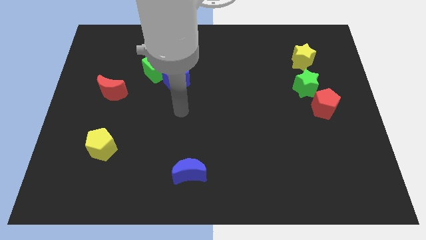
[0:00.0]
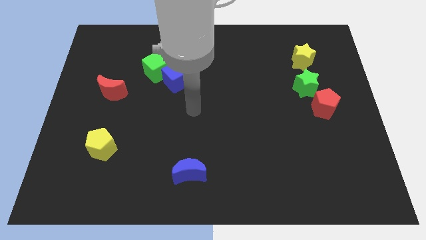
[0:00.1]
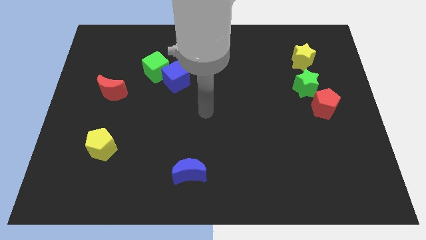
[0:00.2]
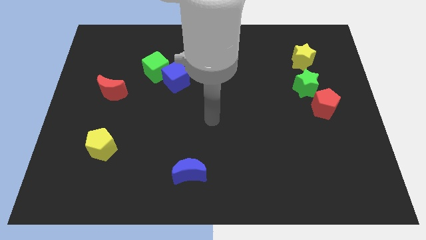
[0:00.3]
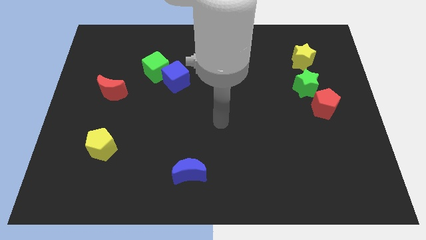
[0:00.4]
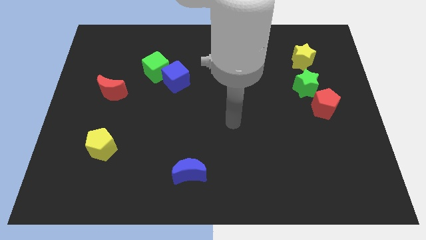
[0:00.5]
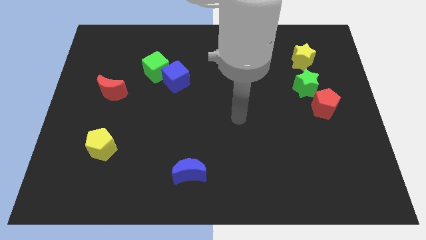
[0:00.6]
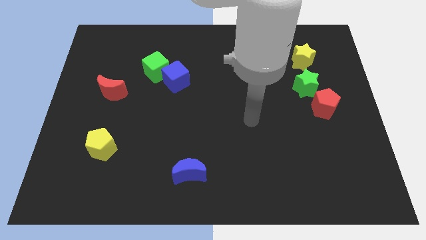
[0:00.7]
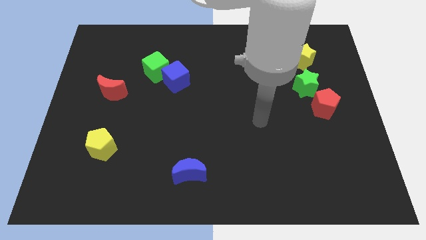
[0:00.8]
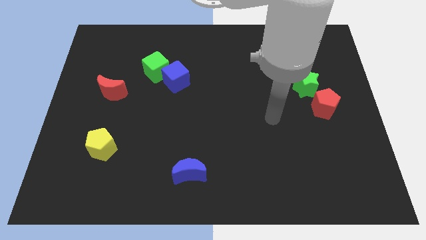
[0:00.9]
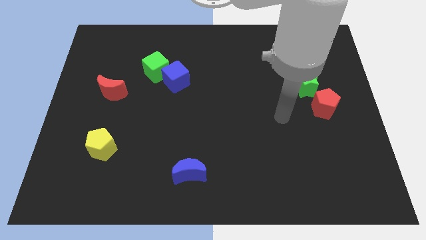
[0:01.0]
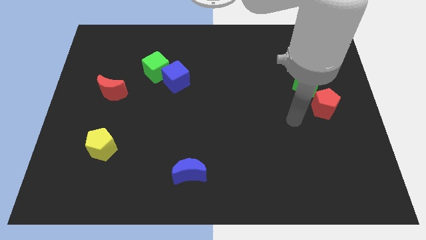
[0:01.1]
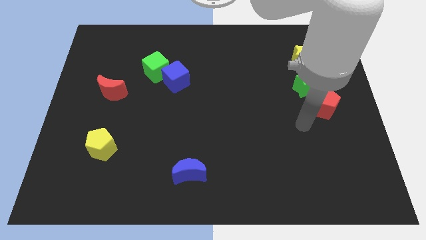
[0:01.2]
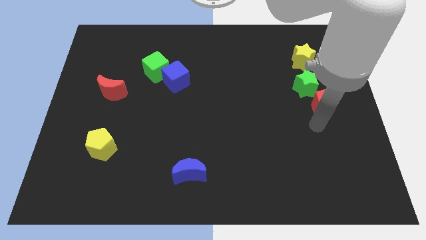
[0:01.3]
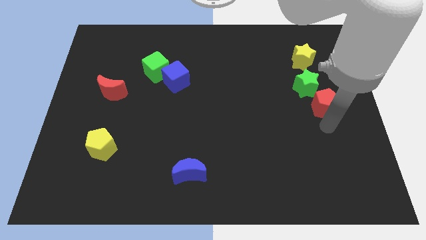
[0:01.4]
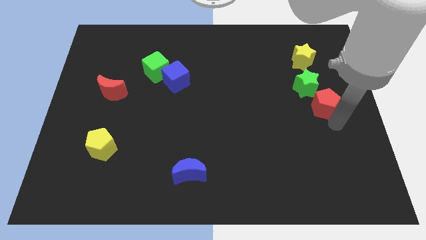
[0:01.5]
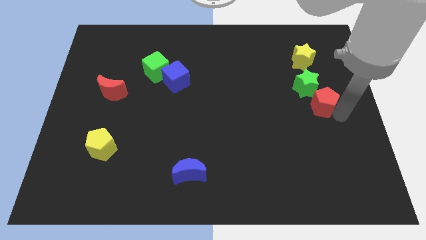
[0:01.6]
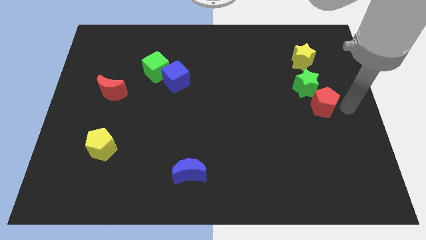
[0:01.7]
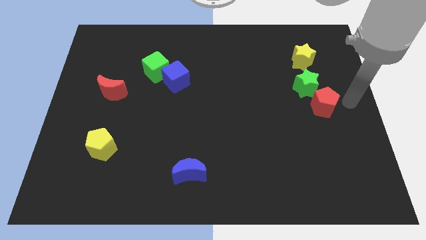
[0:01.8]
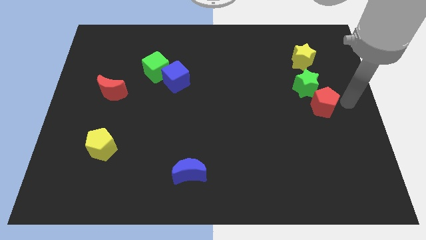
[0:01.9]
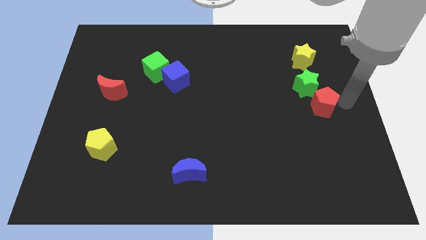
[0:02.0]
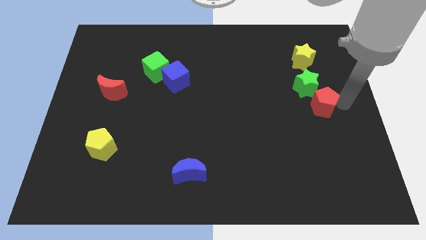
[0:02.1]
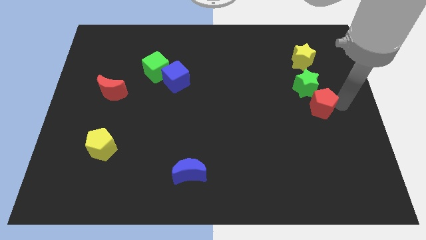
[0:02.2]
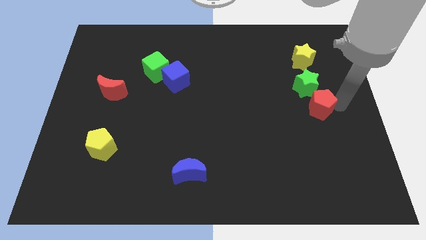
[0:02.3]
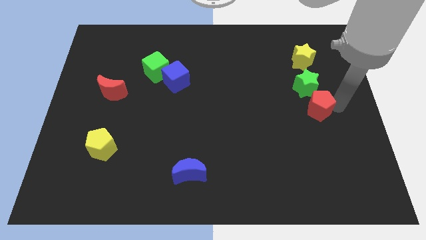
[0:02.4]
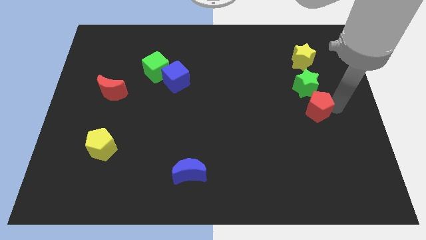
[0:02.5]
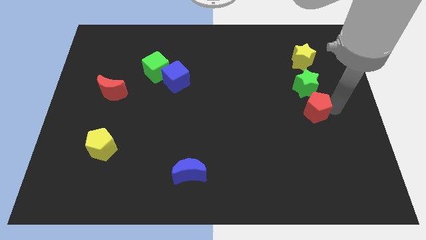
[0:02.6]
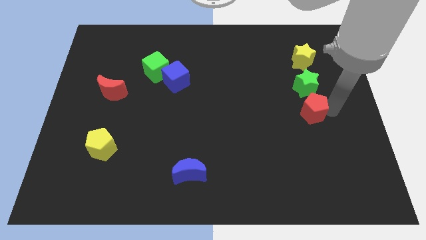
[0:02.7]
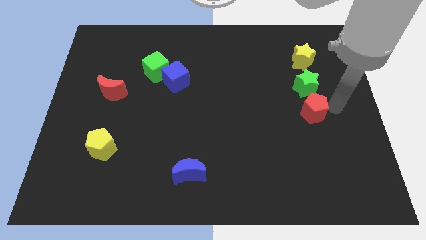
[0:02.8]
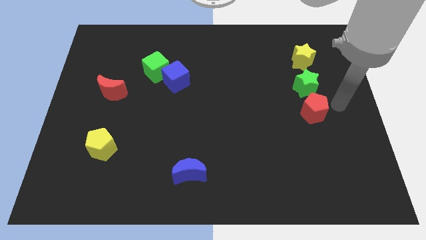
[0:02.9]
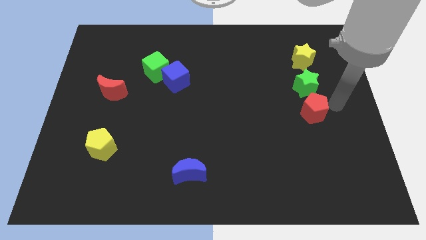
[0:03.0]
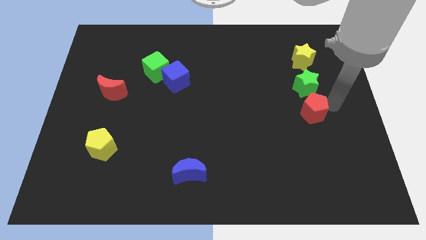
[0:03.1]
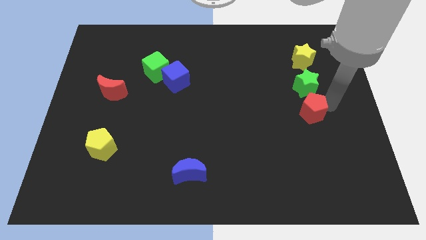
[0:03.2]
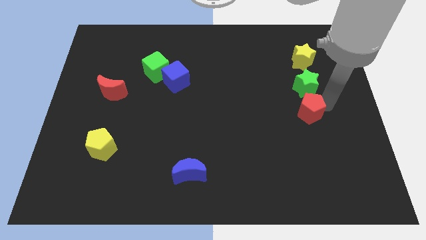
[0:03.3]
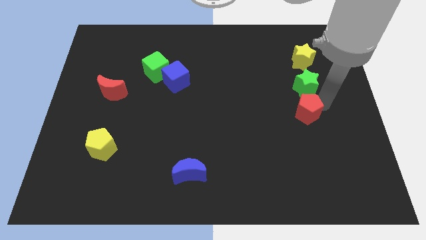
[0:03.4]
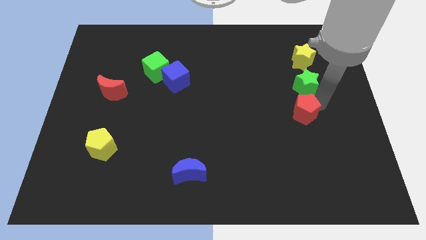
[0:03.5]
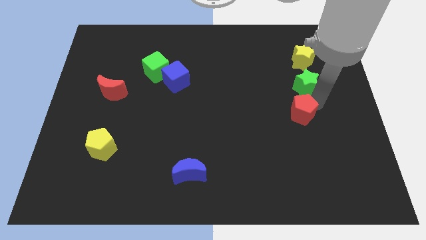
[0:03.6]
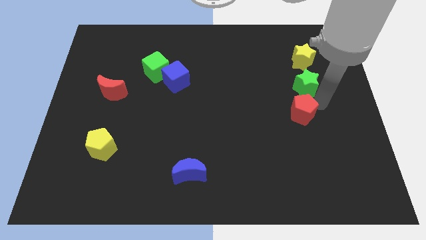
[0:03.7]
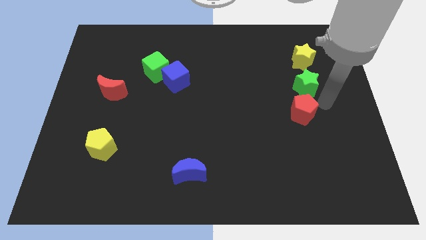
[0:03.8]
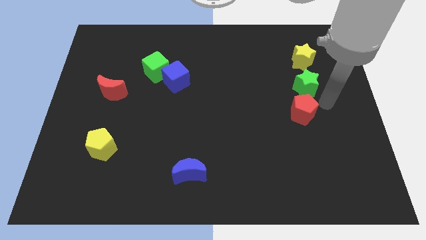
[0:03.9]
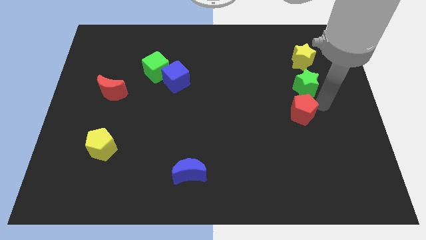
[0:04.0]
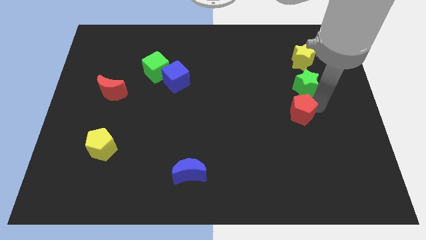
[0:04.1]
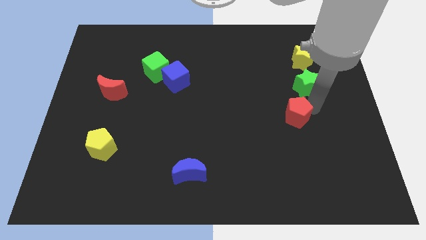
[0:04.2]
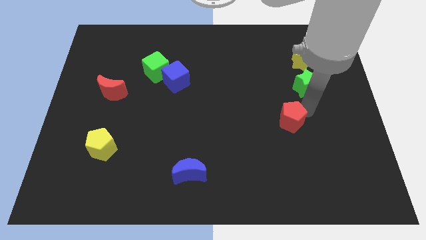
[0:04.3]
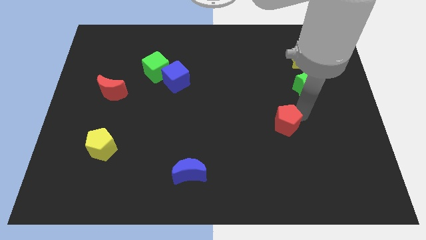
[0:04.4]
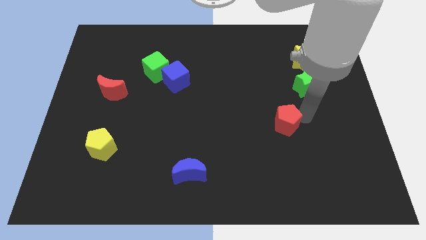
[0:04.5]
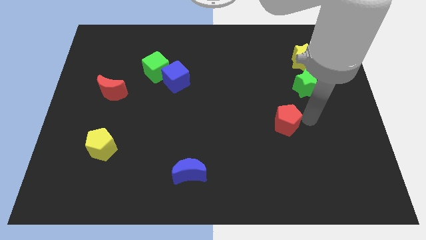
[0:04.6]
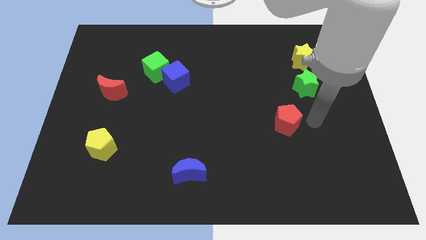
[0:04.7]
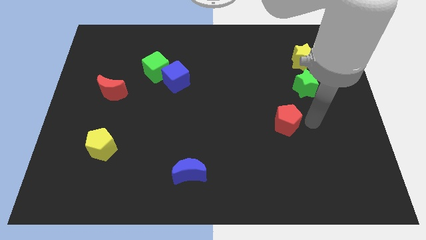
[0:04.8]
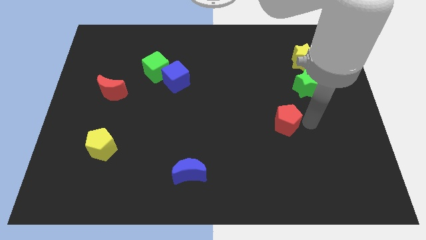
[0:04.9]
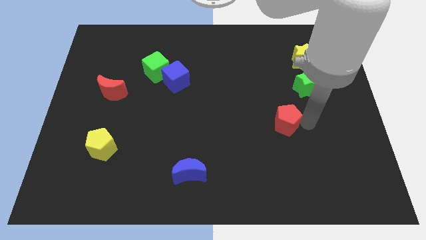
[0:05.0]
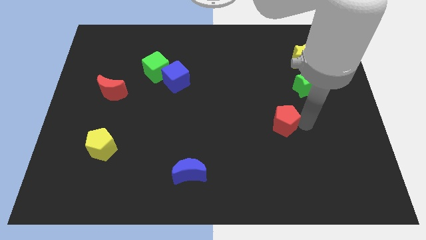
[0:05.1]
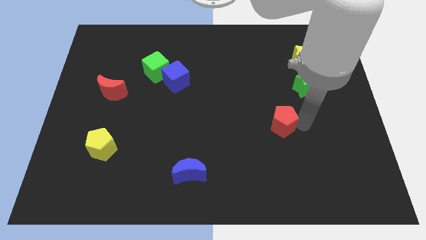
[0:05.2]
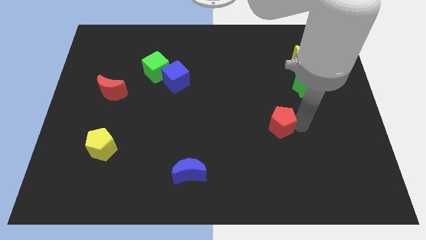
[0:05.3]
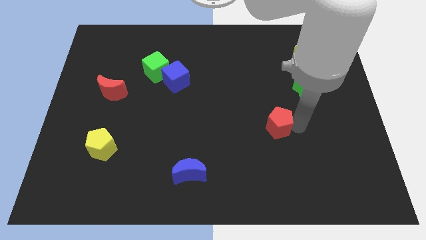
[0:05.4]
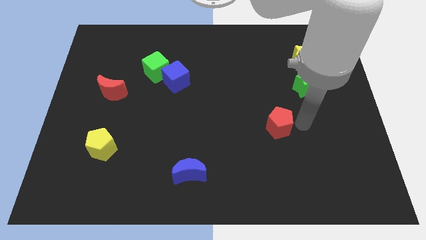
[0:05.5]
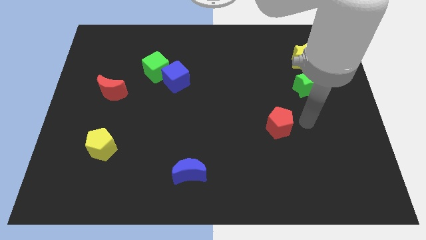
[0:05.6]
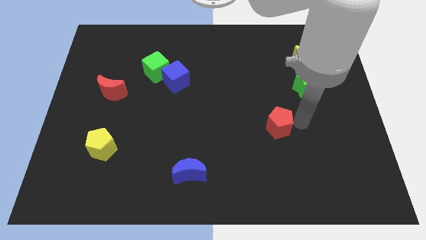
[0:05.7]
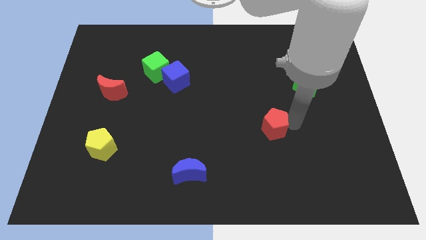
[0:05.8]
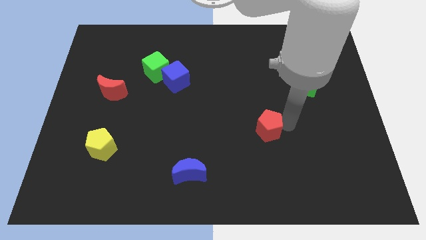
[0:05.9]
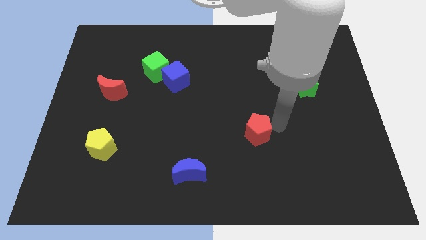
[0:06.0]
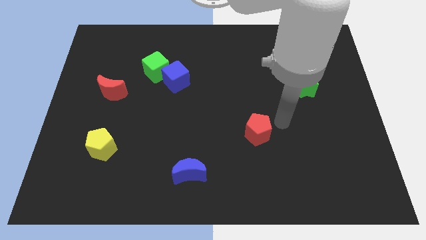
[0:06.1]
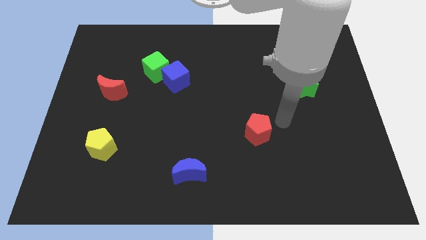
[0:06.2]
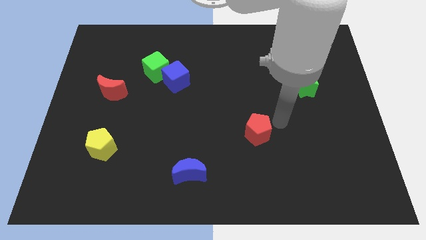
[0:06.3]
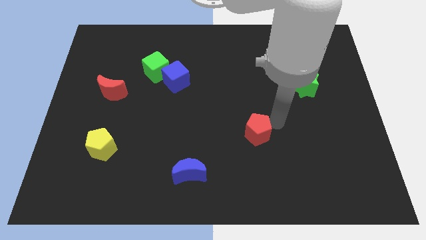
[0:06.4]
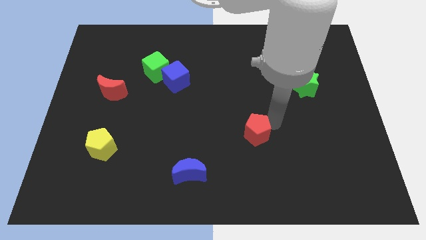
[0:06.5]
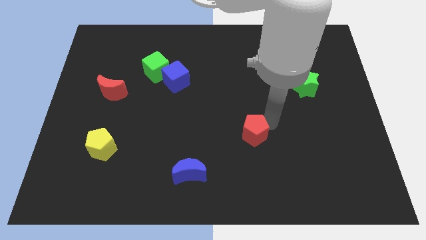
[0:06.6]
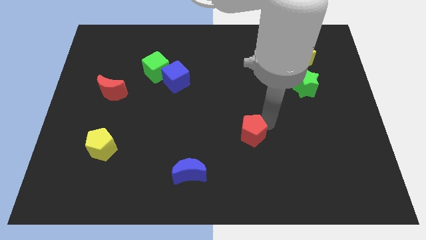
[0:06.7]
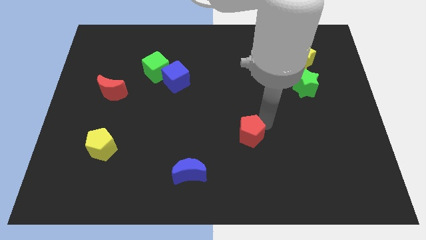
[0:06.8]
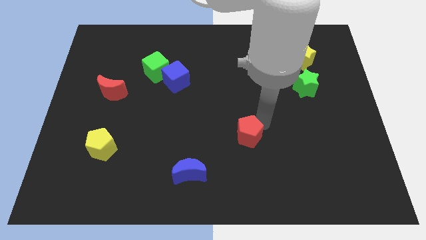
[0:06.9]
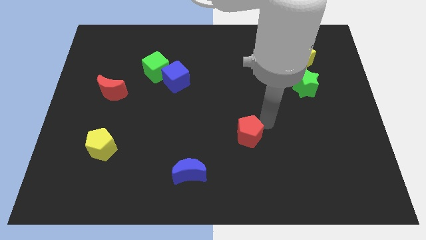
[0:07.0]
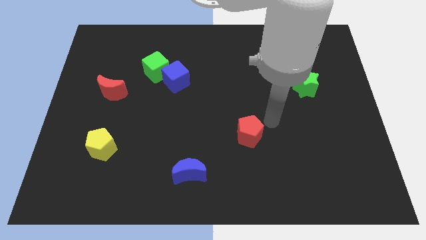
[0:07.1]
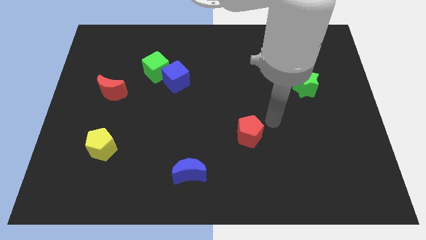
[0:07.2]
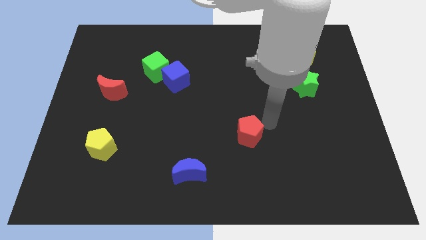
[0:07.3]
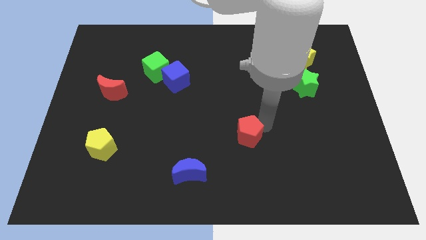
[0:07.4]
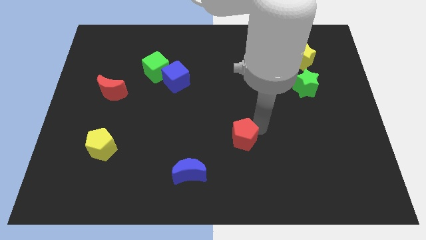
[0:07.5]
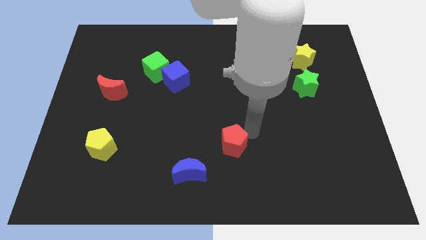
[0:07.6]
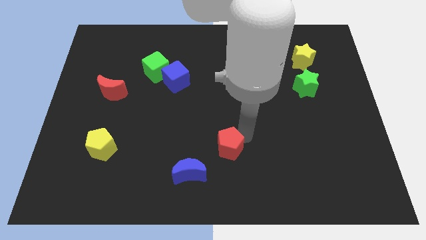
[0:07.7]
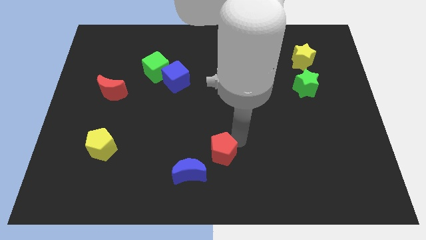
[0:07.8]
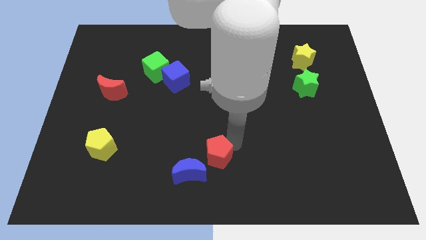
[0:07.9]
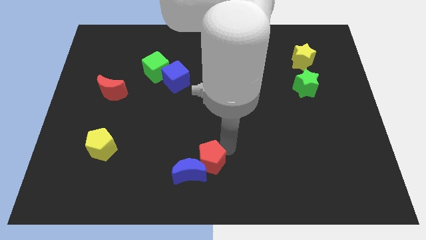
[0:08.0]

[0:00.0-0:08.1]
push the red pentagon close to the blue moon

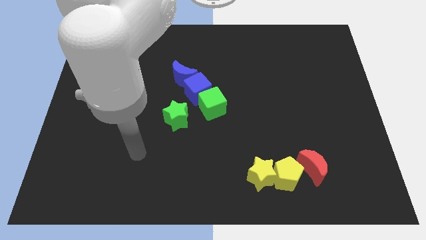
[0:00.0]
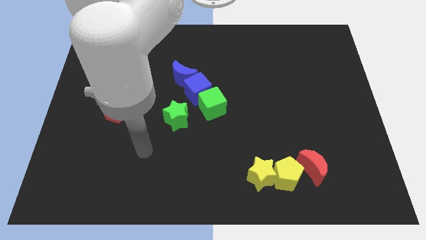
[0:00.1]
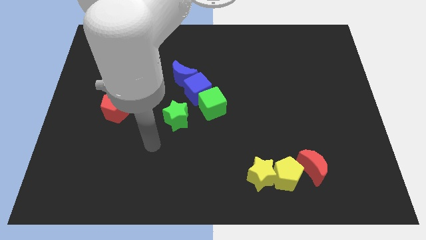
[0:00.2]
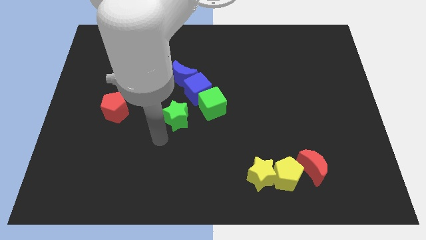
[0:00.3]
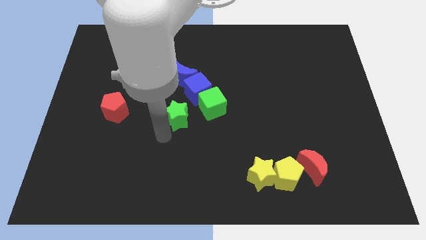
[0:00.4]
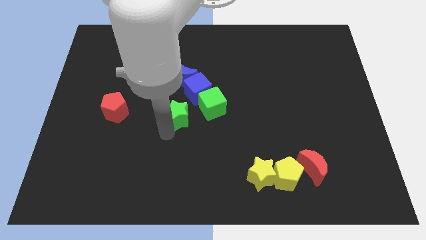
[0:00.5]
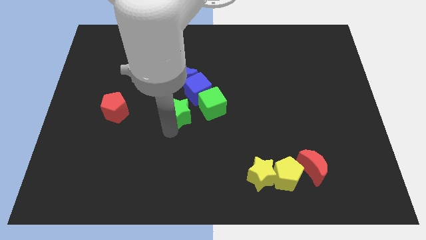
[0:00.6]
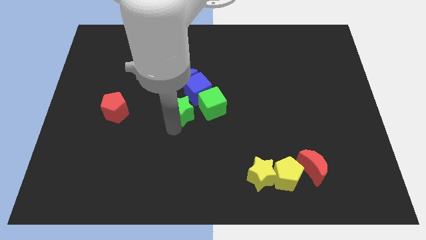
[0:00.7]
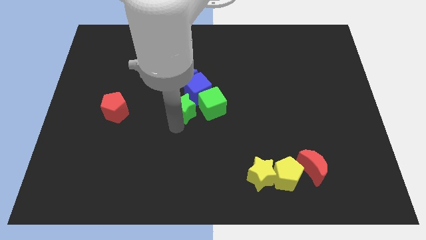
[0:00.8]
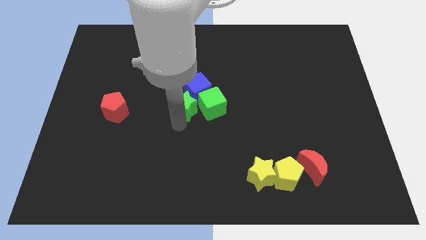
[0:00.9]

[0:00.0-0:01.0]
slide the green star to the blue cube
